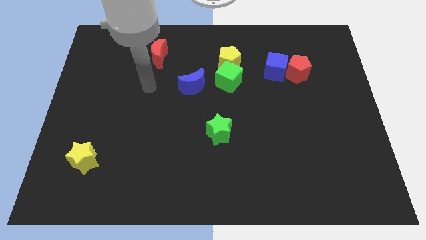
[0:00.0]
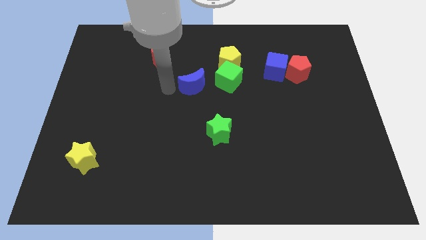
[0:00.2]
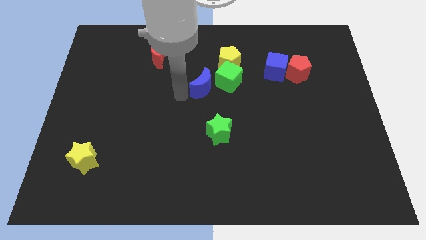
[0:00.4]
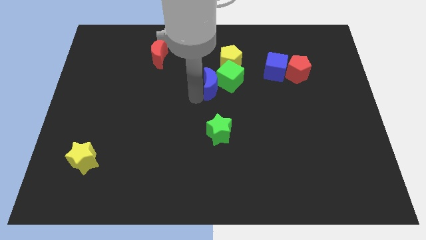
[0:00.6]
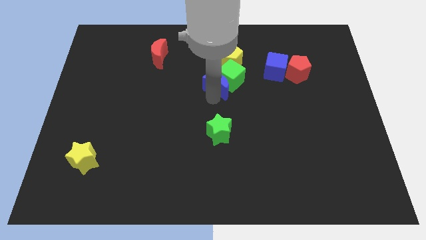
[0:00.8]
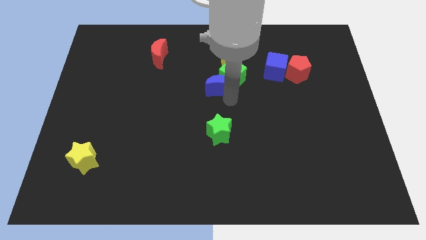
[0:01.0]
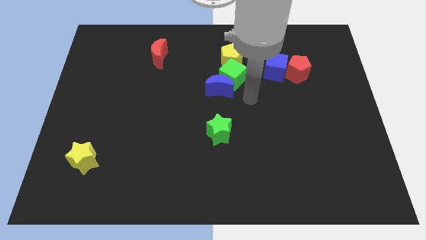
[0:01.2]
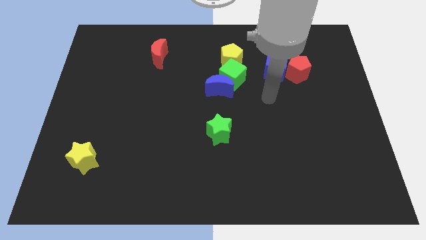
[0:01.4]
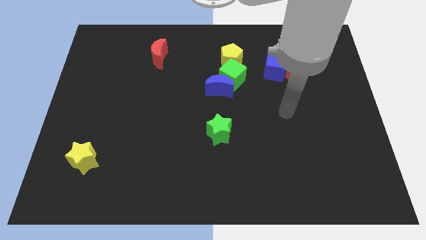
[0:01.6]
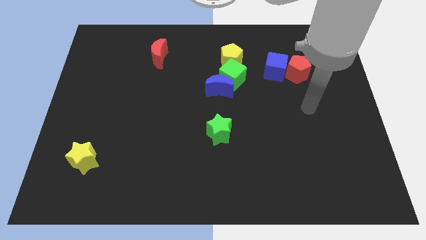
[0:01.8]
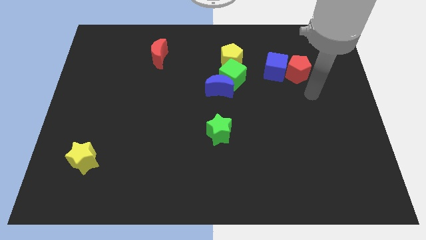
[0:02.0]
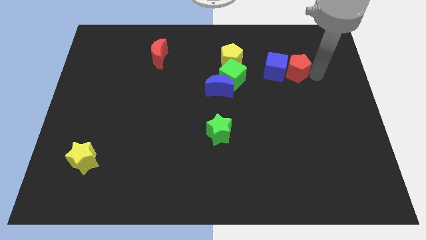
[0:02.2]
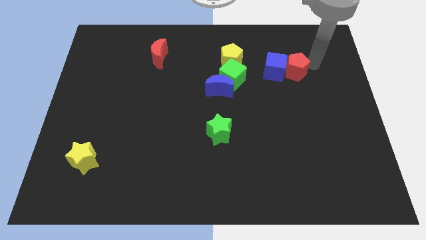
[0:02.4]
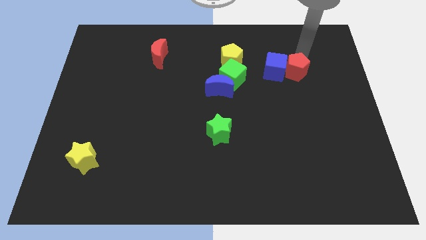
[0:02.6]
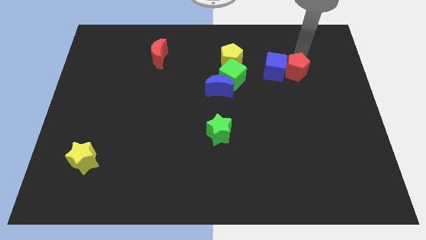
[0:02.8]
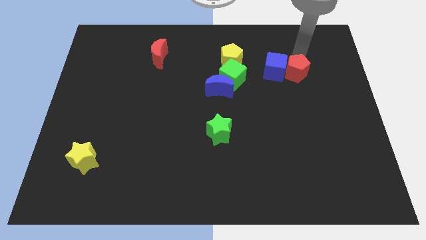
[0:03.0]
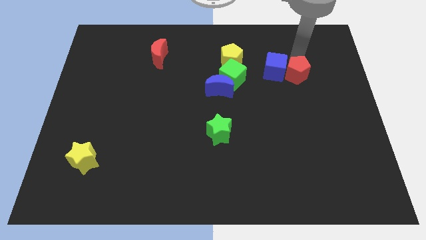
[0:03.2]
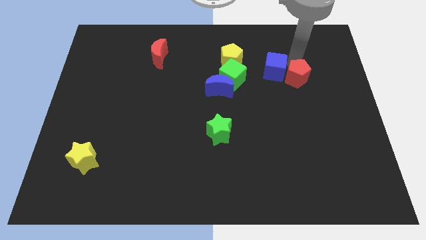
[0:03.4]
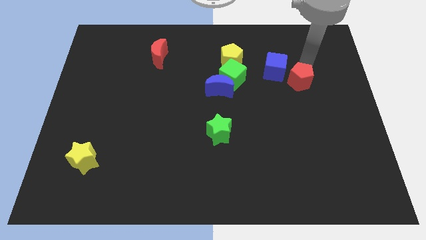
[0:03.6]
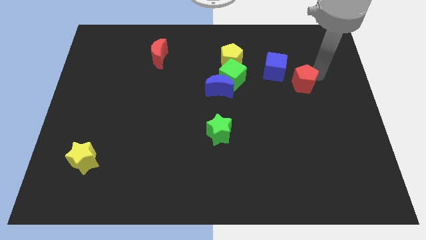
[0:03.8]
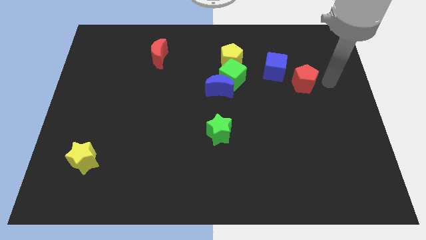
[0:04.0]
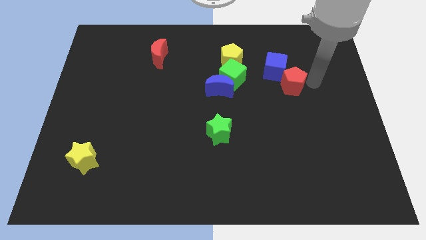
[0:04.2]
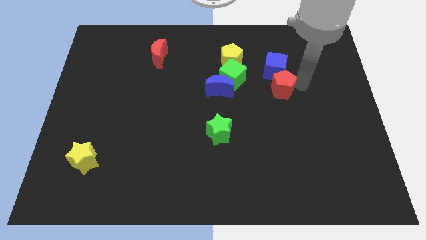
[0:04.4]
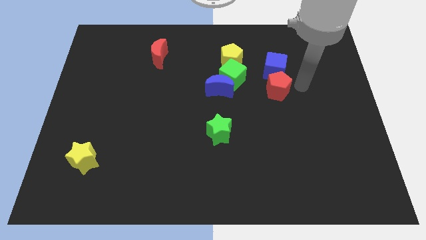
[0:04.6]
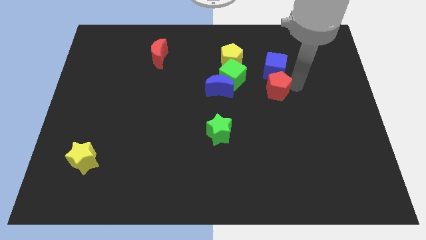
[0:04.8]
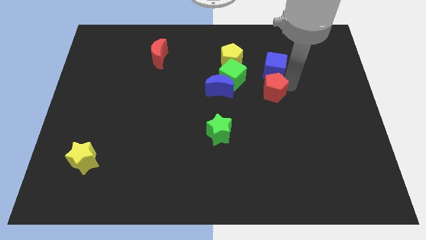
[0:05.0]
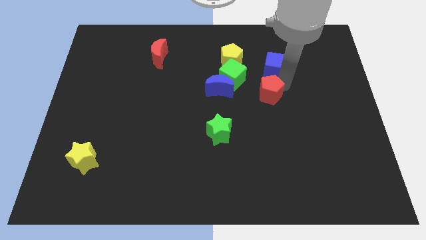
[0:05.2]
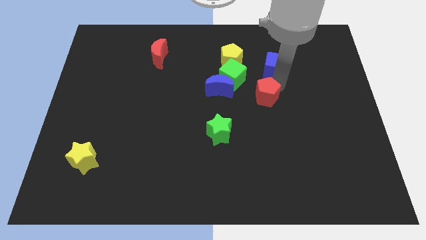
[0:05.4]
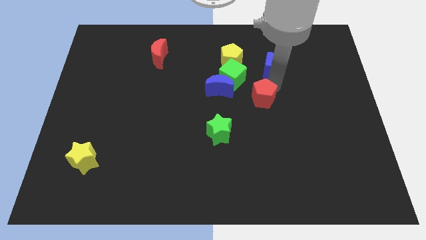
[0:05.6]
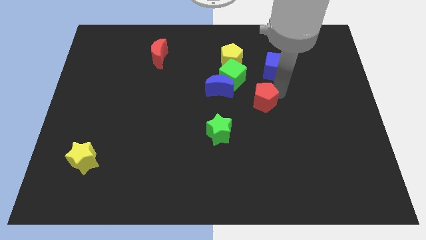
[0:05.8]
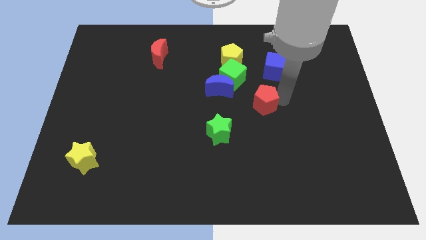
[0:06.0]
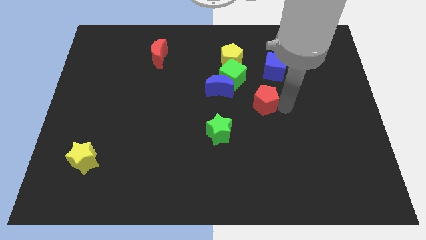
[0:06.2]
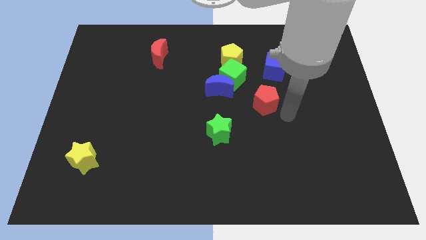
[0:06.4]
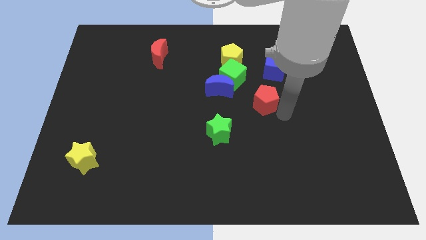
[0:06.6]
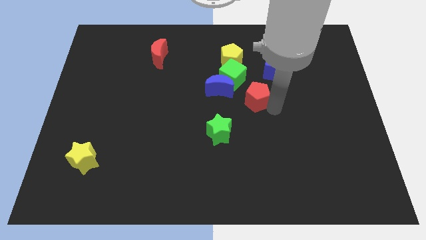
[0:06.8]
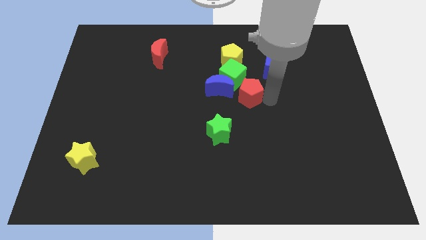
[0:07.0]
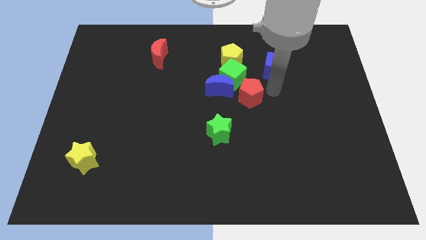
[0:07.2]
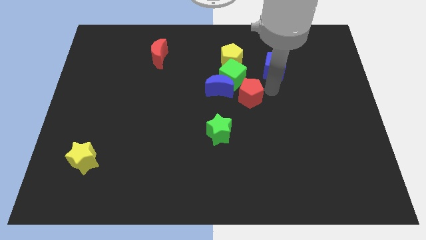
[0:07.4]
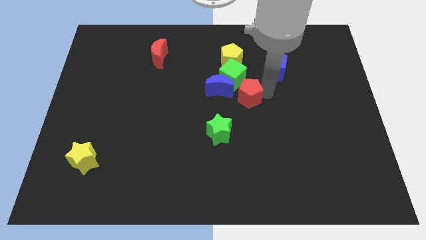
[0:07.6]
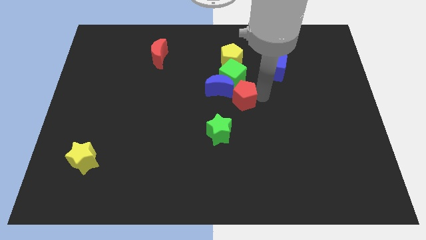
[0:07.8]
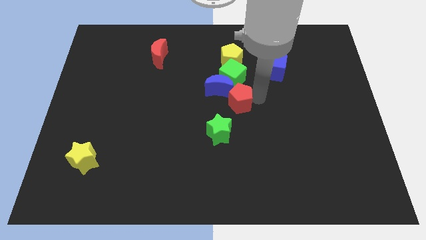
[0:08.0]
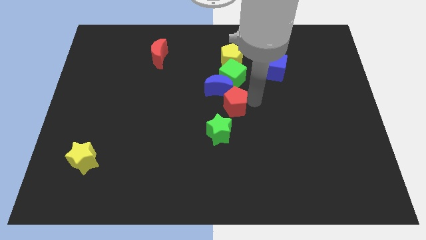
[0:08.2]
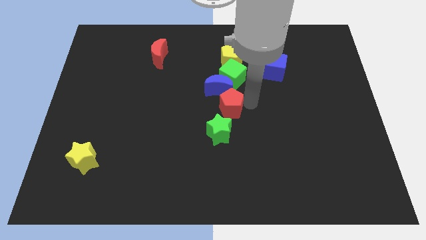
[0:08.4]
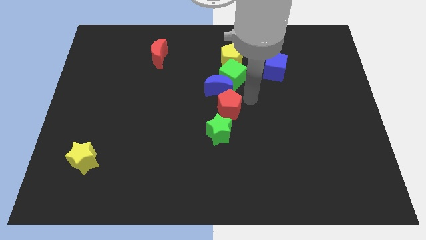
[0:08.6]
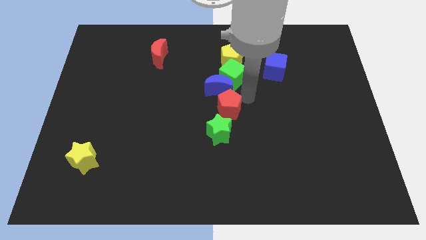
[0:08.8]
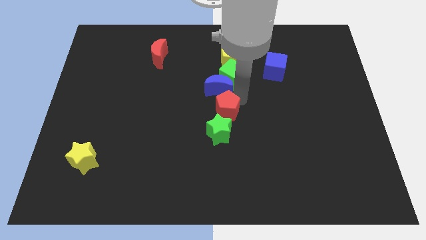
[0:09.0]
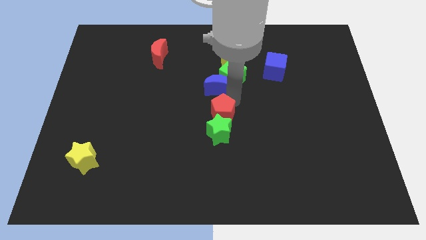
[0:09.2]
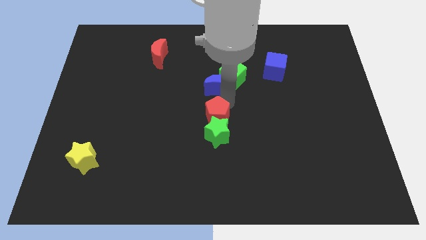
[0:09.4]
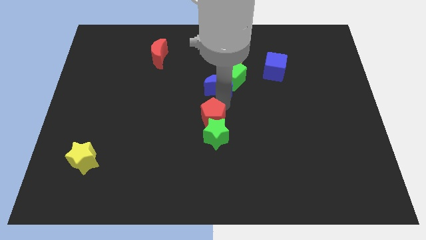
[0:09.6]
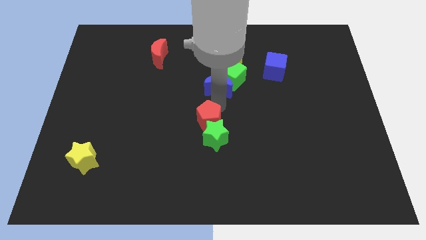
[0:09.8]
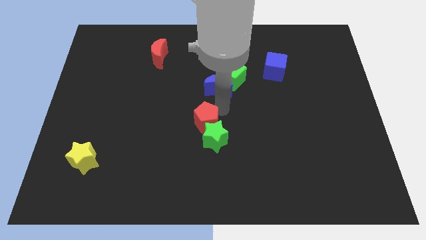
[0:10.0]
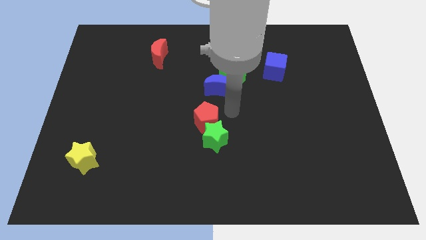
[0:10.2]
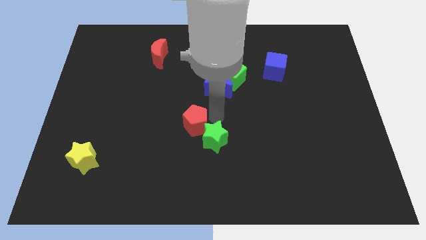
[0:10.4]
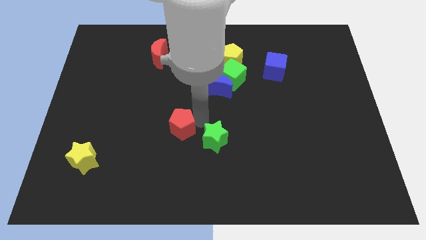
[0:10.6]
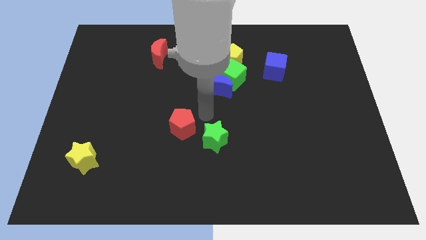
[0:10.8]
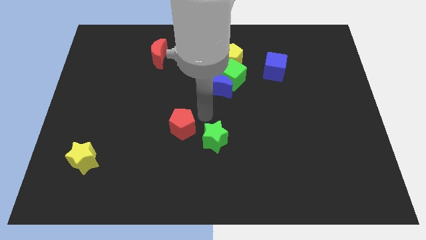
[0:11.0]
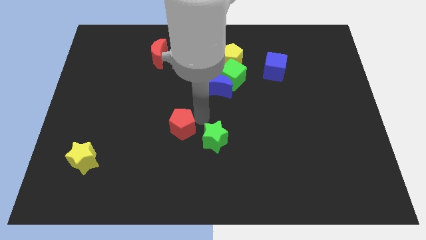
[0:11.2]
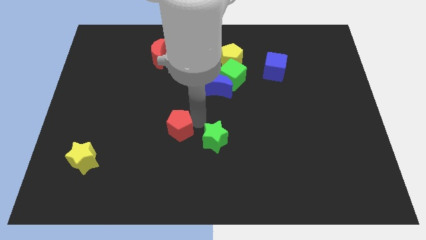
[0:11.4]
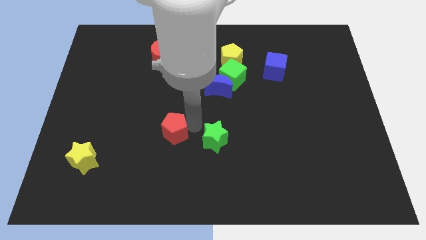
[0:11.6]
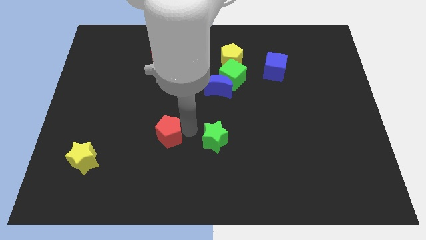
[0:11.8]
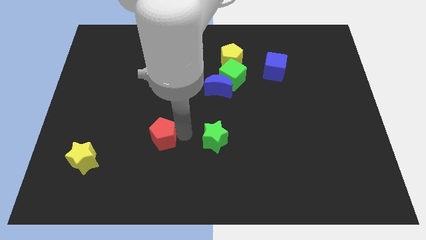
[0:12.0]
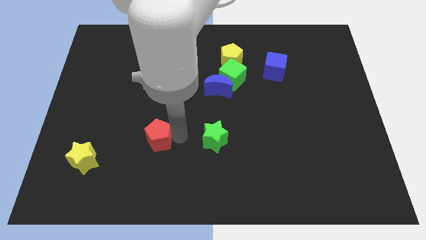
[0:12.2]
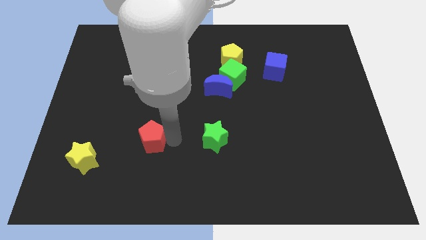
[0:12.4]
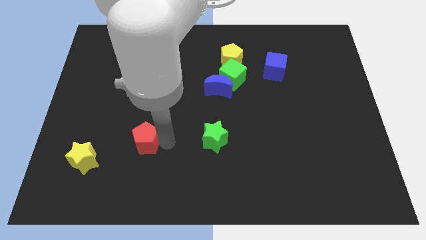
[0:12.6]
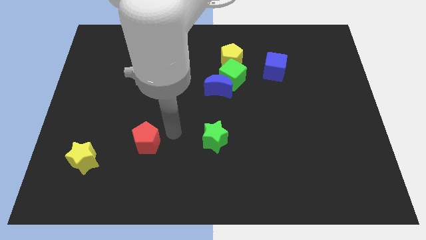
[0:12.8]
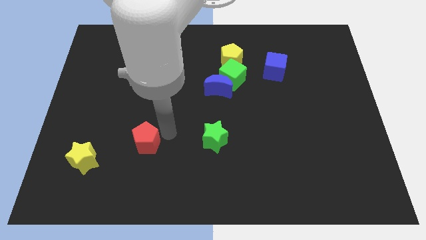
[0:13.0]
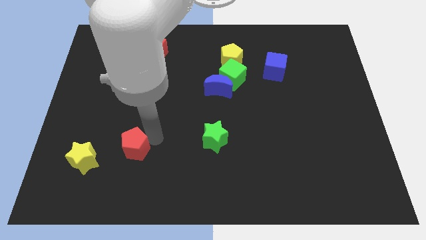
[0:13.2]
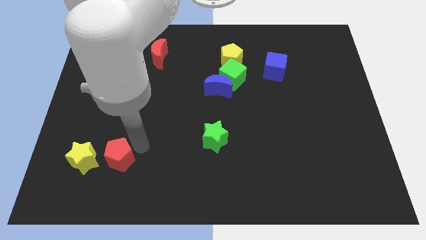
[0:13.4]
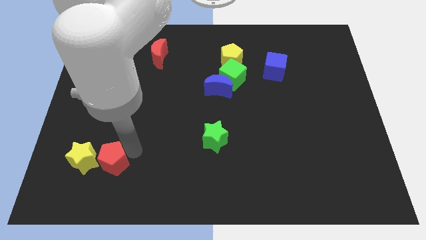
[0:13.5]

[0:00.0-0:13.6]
slide the red pentagon next to the yellow star

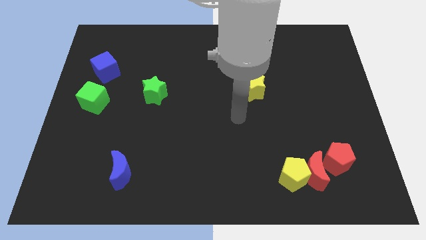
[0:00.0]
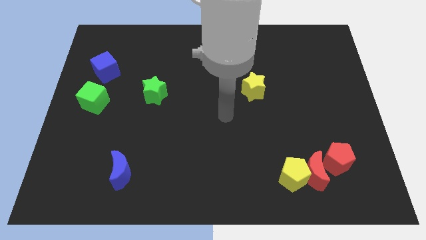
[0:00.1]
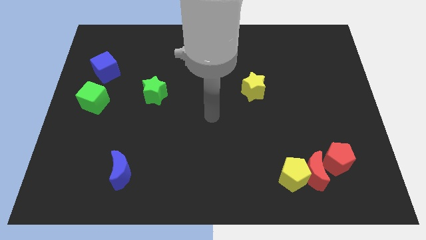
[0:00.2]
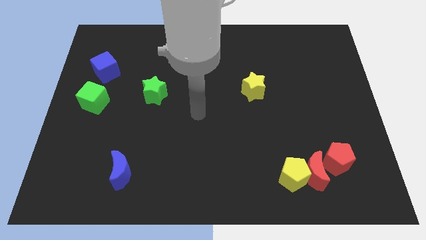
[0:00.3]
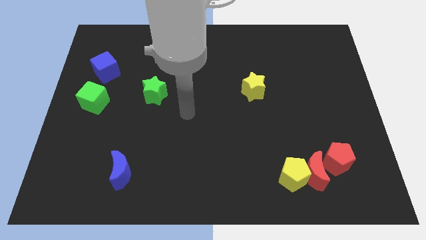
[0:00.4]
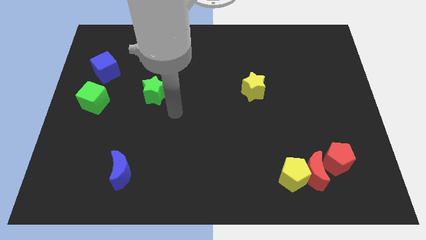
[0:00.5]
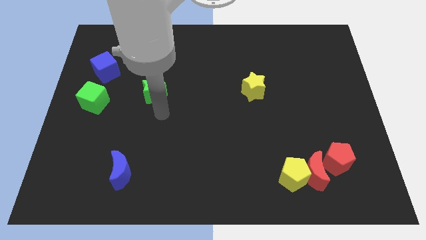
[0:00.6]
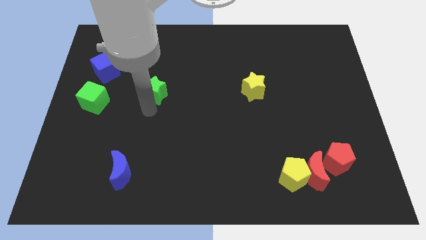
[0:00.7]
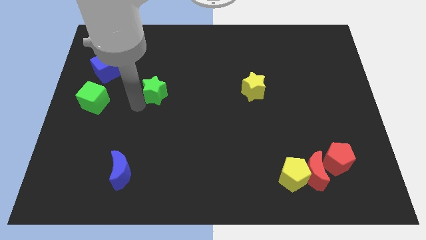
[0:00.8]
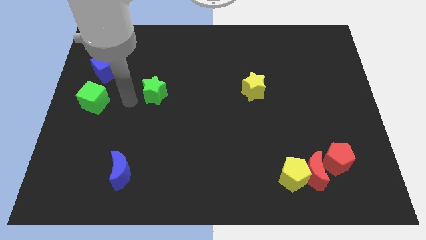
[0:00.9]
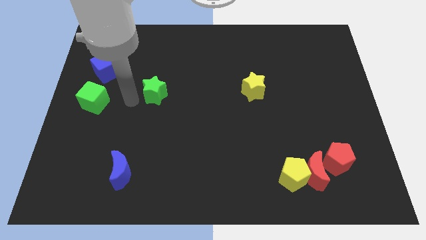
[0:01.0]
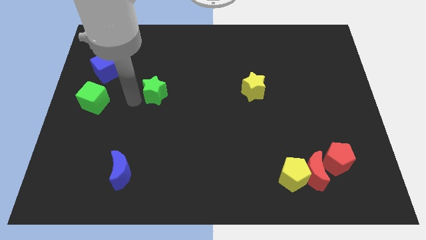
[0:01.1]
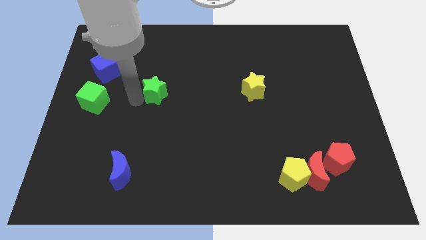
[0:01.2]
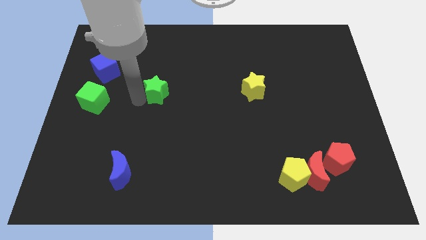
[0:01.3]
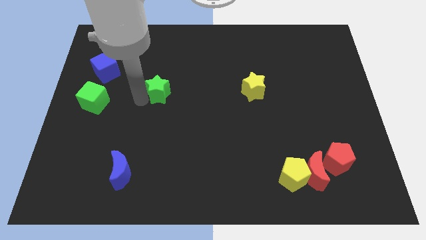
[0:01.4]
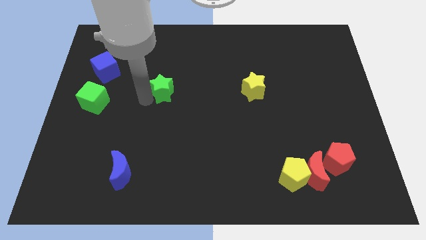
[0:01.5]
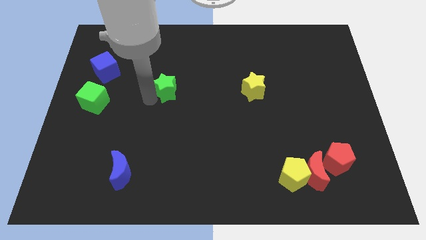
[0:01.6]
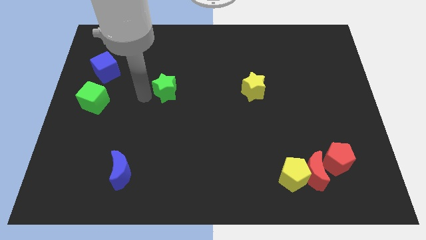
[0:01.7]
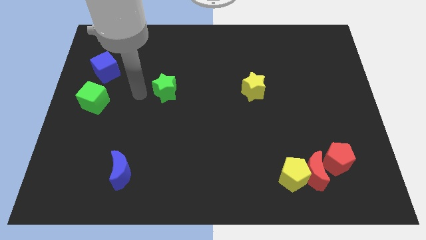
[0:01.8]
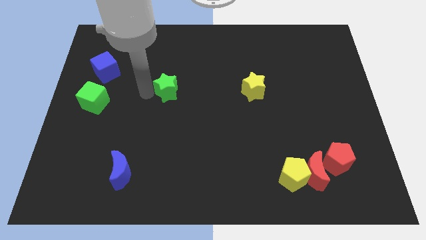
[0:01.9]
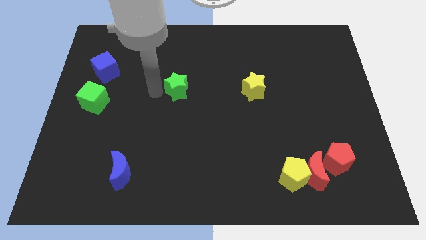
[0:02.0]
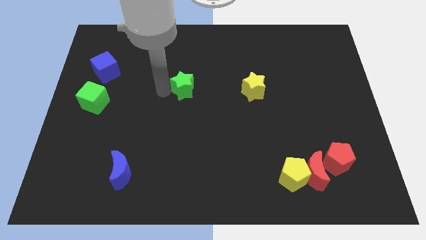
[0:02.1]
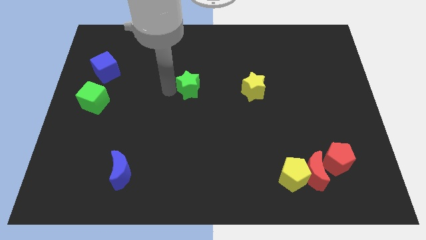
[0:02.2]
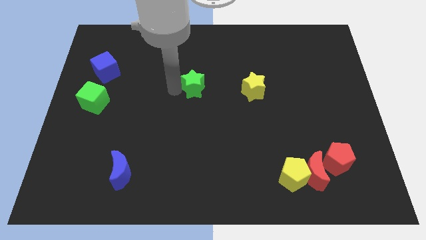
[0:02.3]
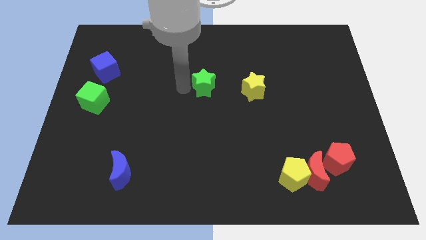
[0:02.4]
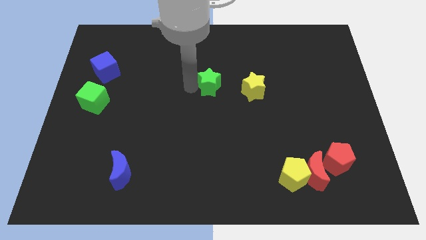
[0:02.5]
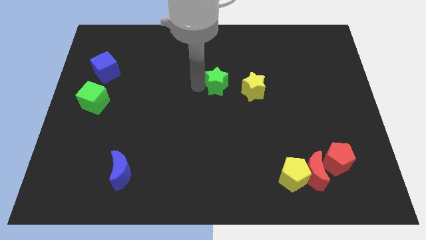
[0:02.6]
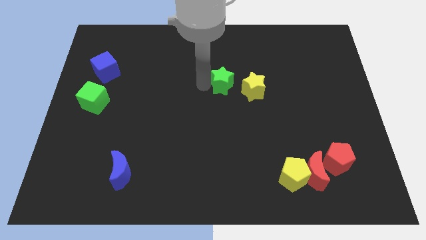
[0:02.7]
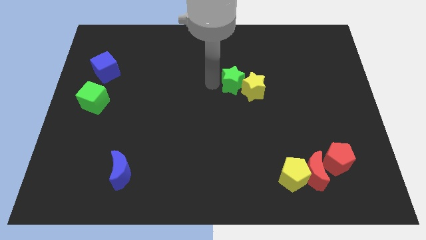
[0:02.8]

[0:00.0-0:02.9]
put the green star to the yellow star
